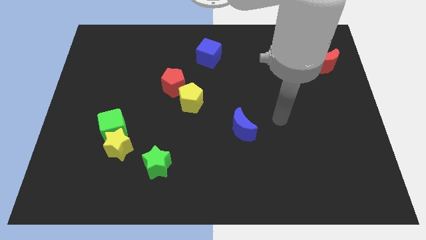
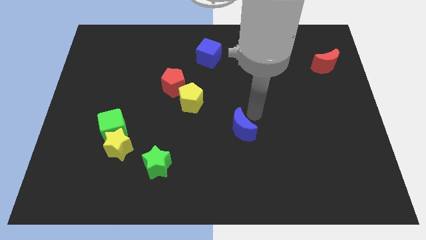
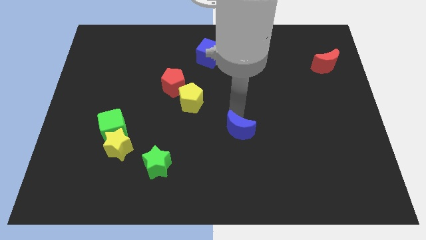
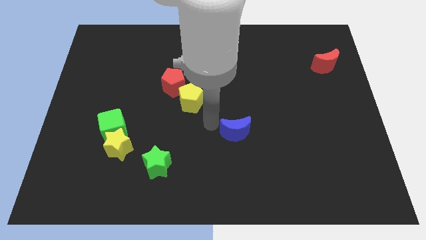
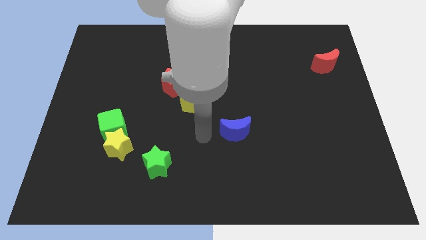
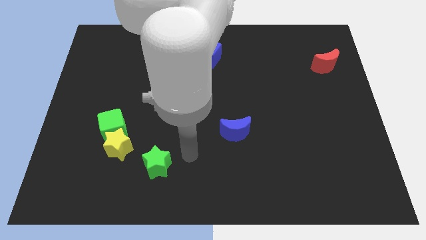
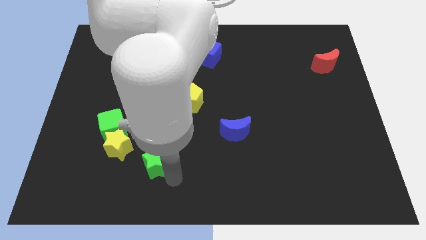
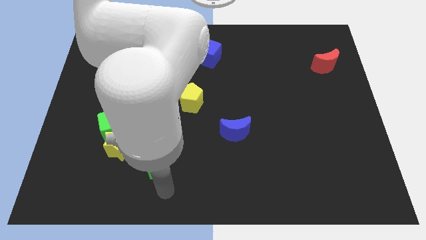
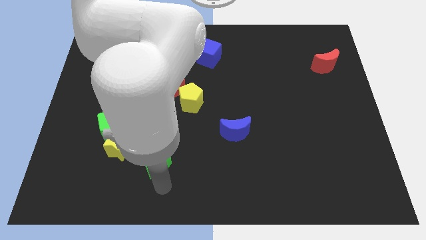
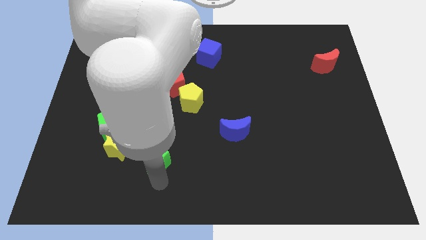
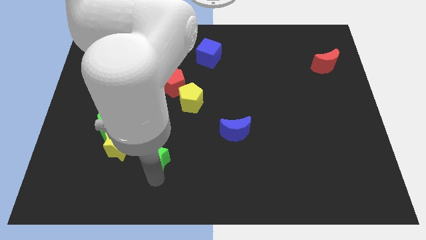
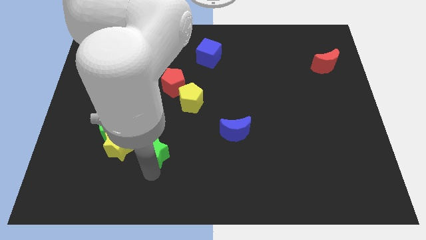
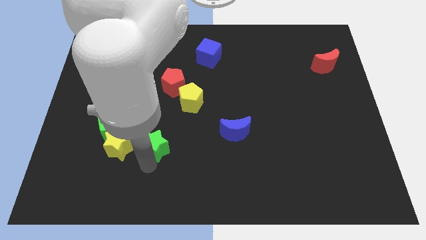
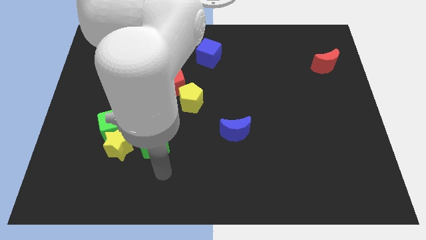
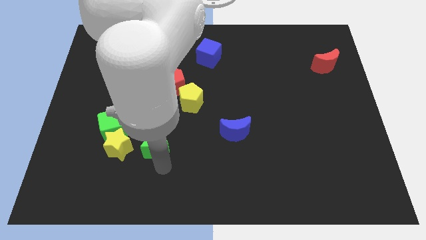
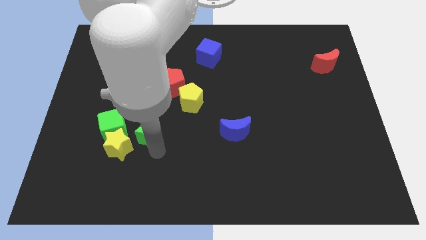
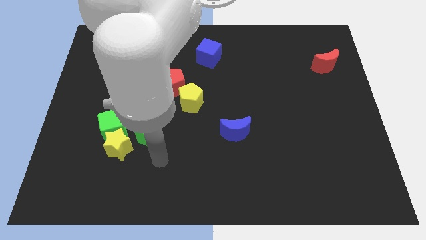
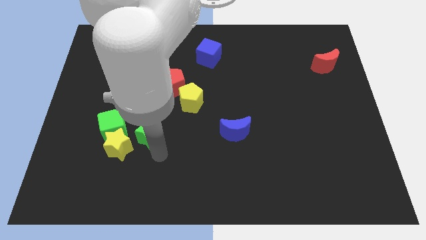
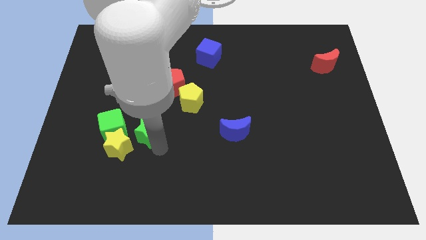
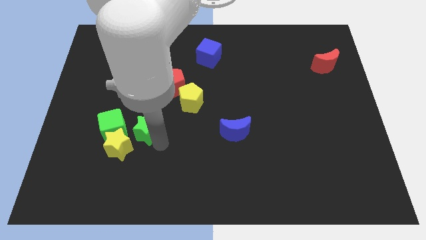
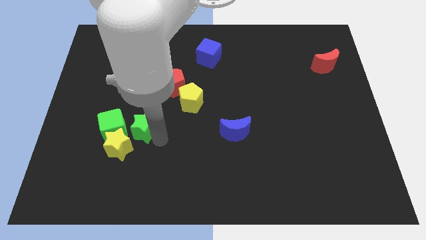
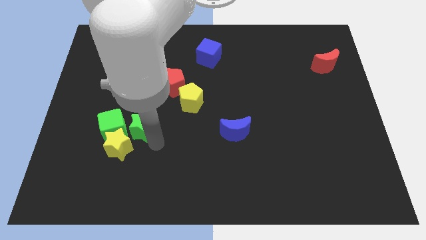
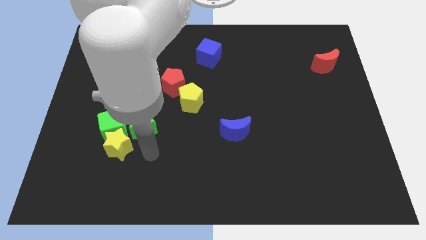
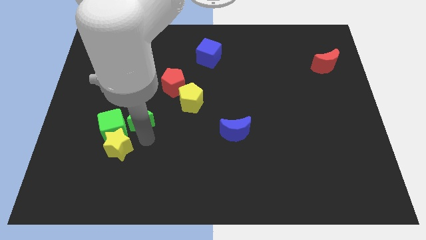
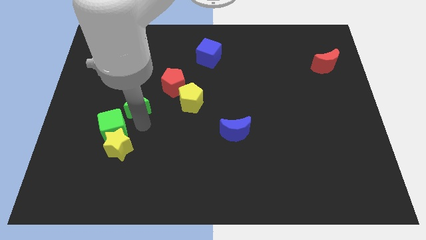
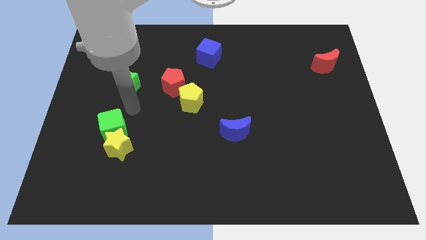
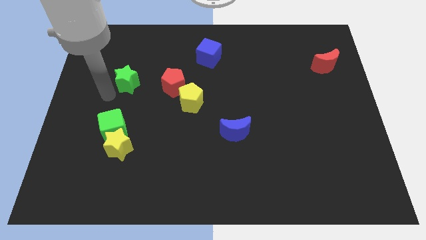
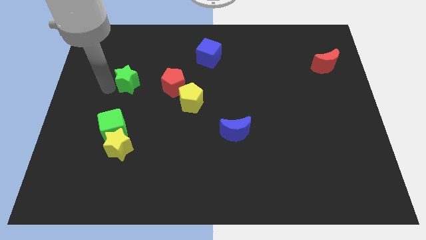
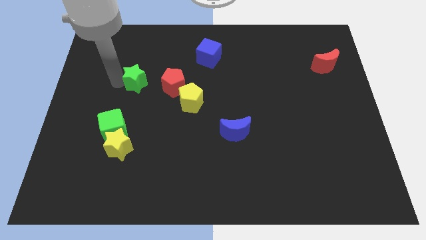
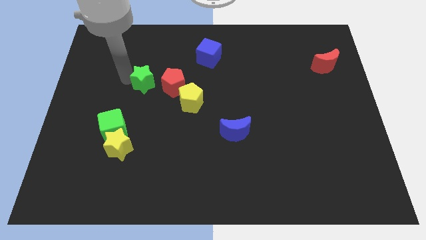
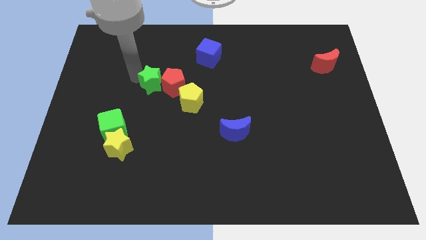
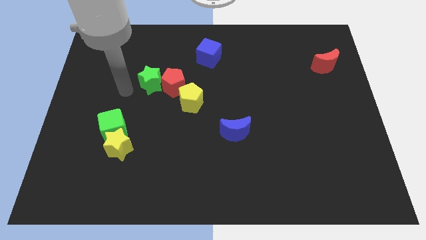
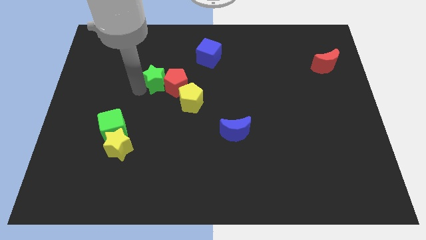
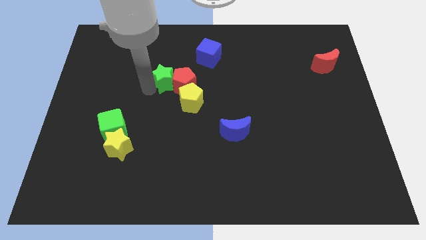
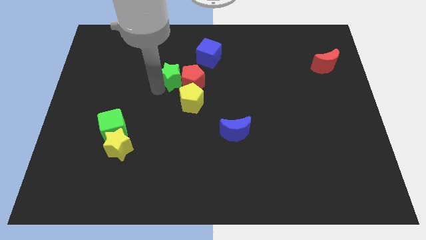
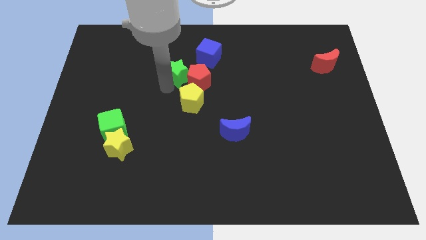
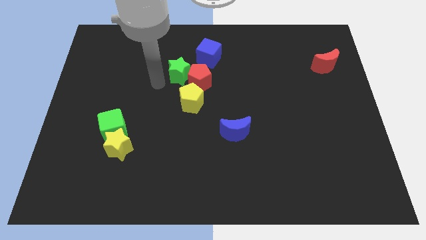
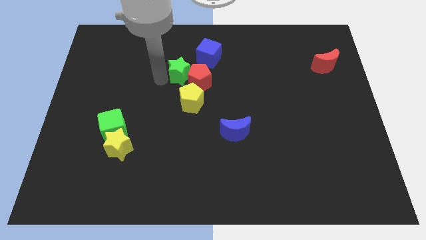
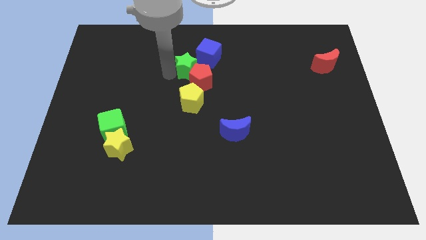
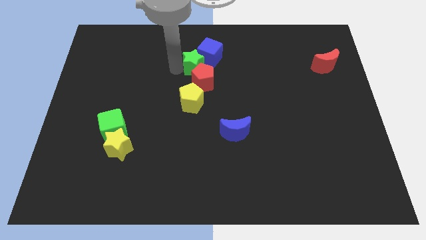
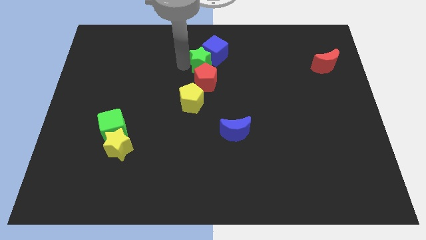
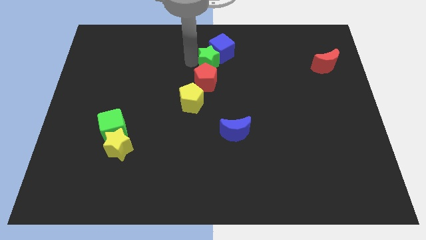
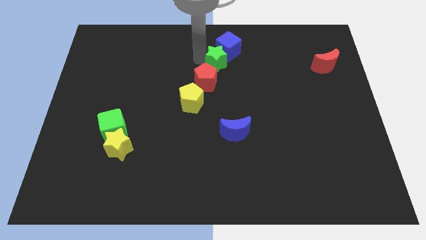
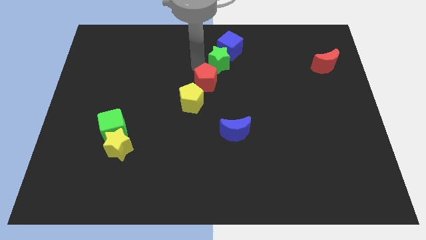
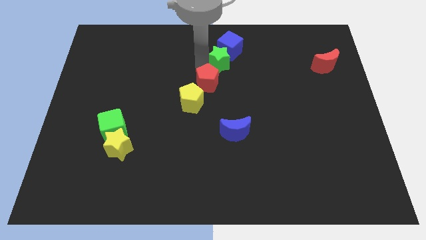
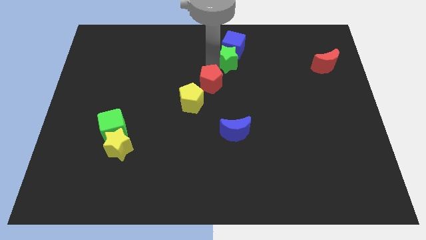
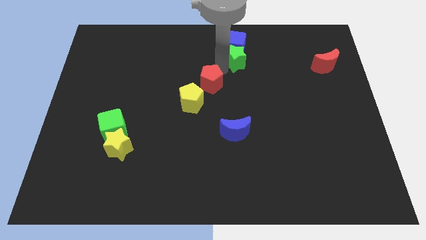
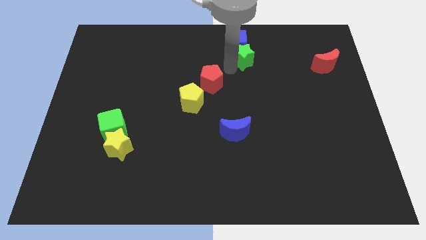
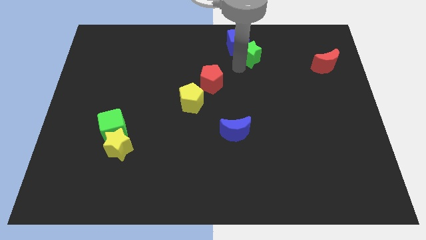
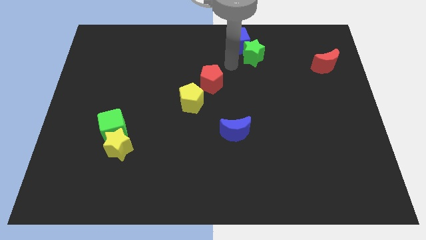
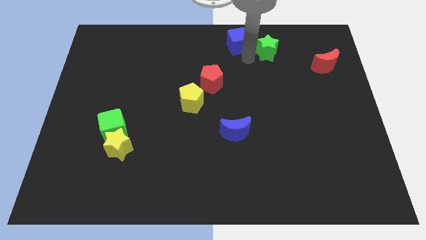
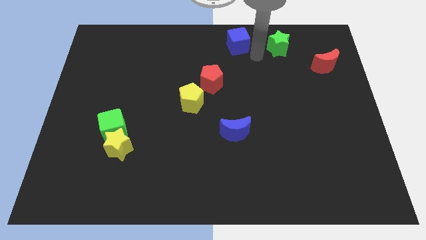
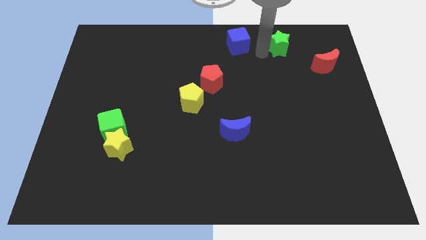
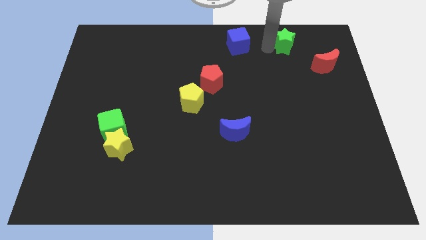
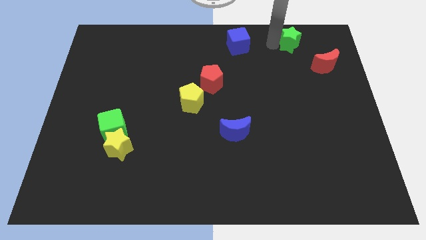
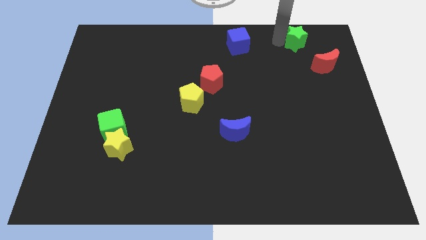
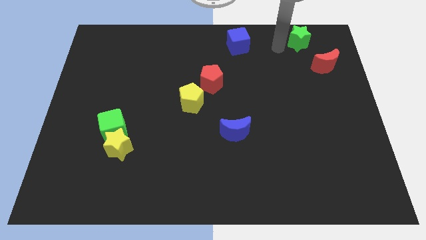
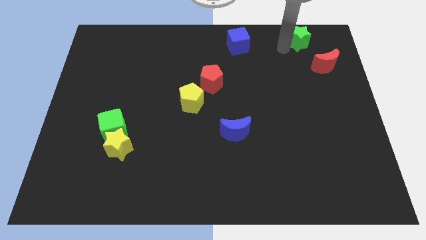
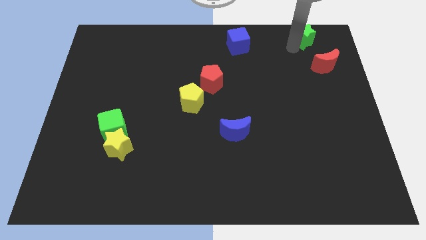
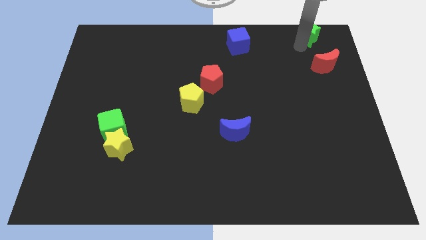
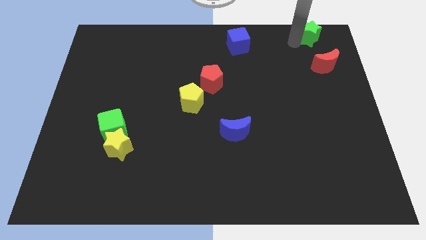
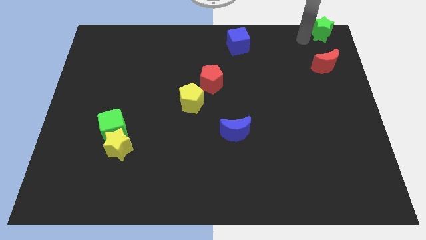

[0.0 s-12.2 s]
slide the green star to the upper right corner
